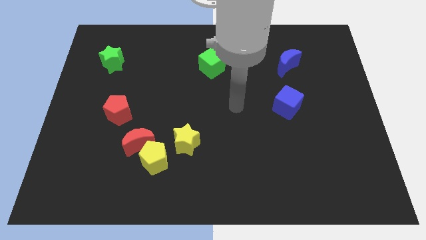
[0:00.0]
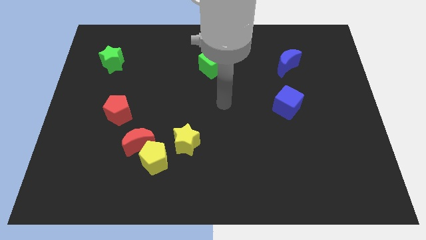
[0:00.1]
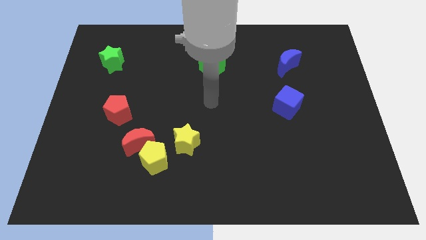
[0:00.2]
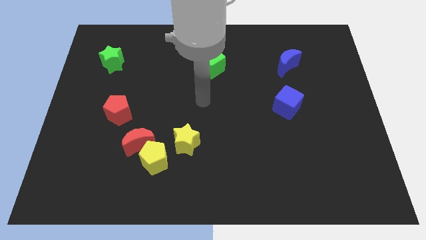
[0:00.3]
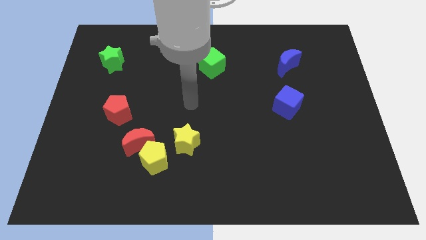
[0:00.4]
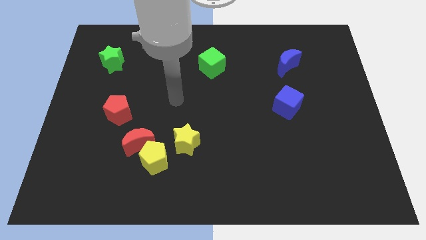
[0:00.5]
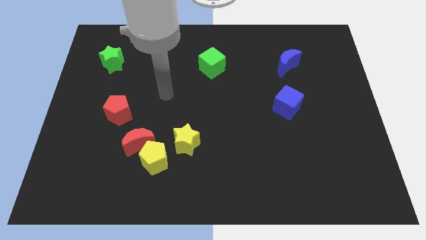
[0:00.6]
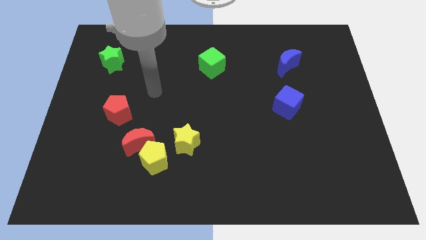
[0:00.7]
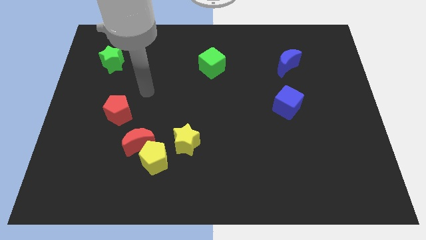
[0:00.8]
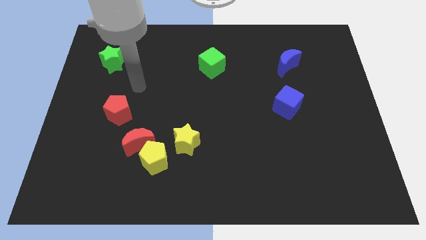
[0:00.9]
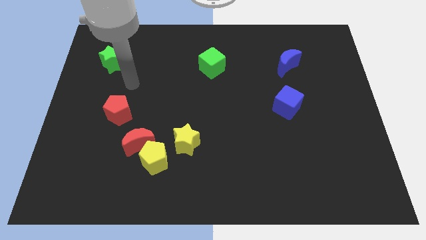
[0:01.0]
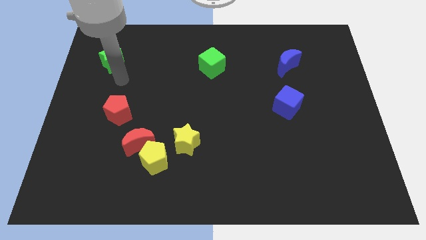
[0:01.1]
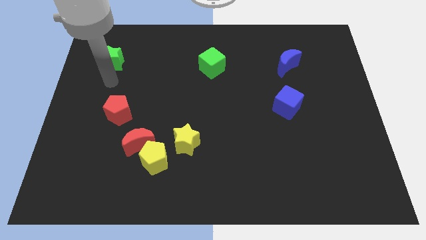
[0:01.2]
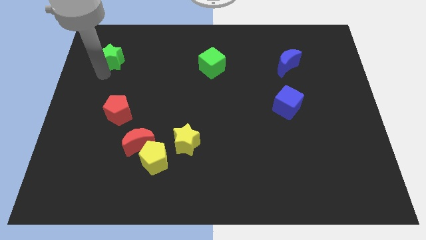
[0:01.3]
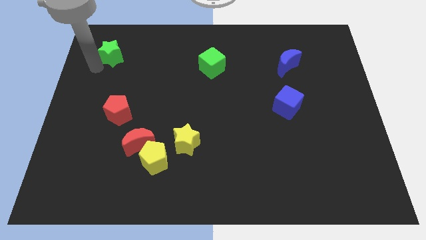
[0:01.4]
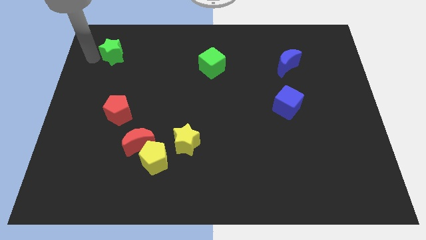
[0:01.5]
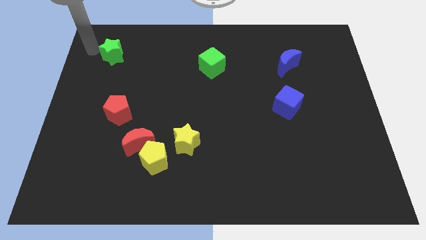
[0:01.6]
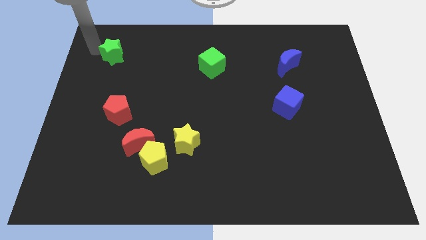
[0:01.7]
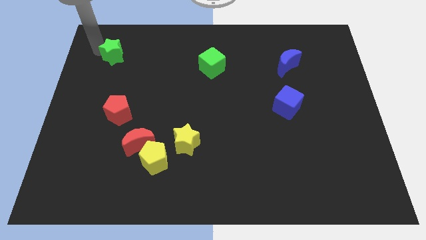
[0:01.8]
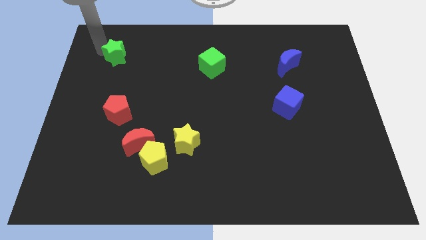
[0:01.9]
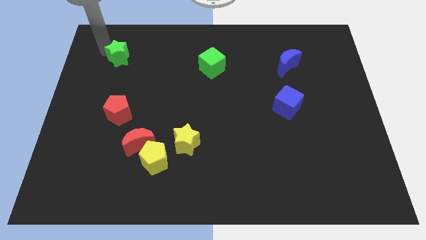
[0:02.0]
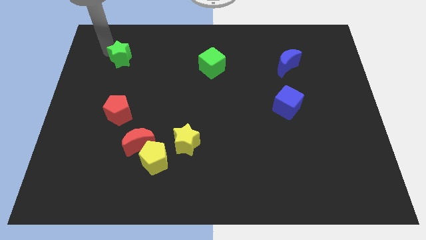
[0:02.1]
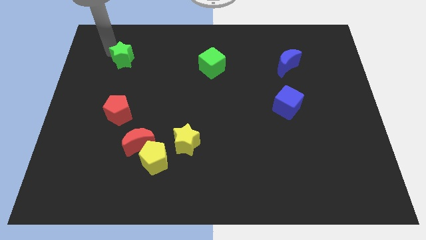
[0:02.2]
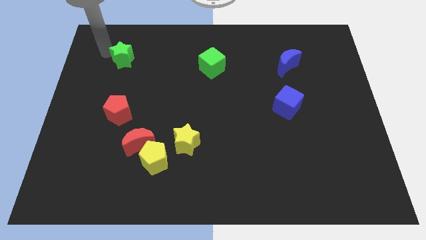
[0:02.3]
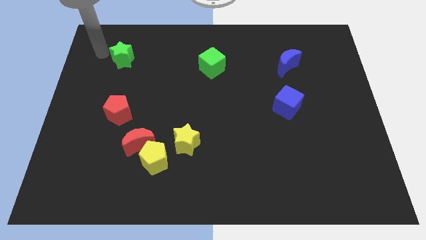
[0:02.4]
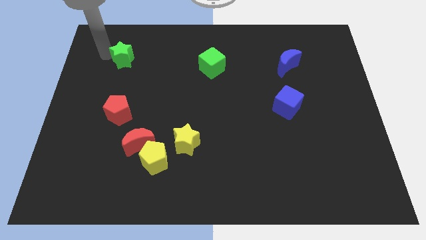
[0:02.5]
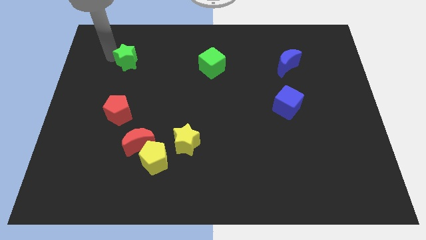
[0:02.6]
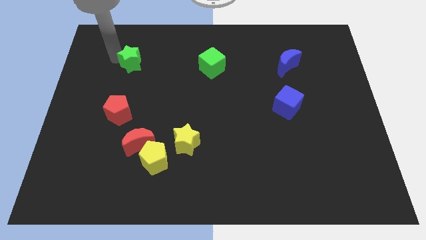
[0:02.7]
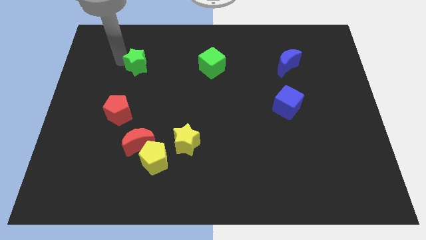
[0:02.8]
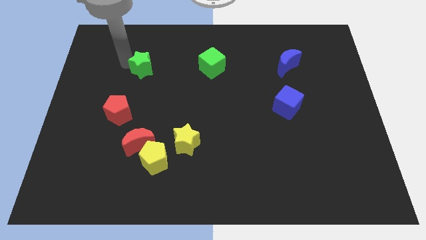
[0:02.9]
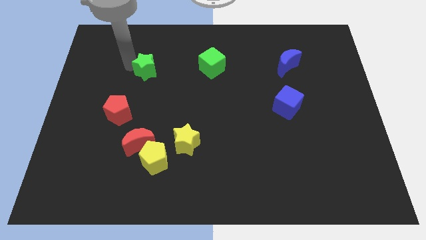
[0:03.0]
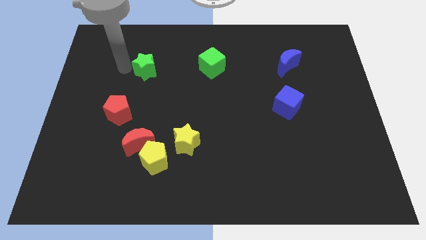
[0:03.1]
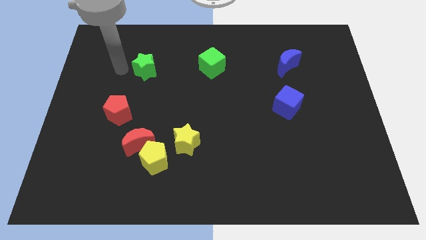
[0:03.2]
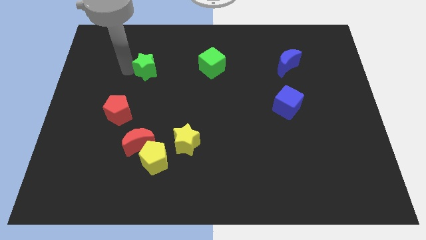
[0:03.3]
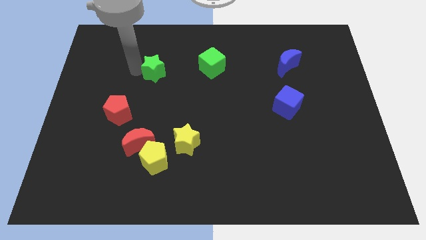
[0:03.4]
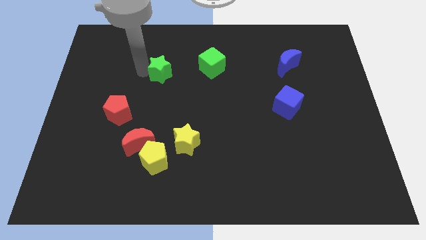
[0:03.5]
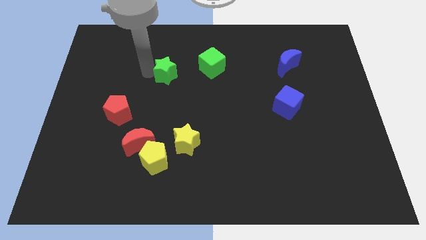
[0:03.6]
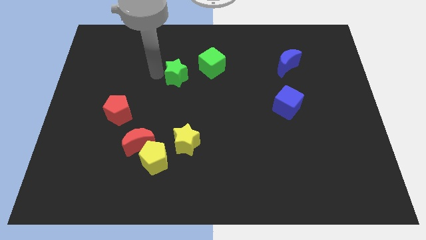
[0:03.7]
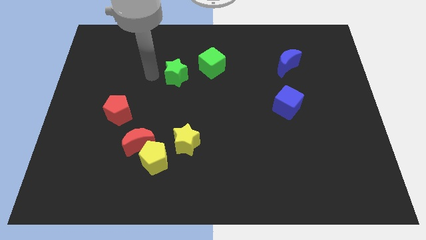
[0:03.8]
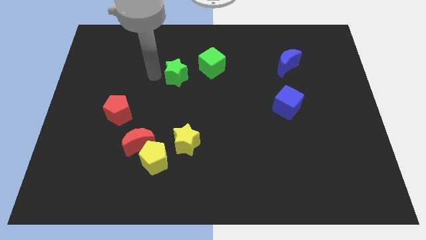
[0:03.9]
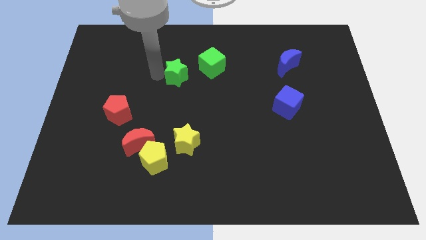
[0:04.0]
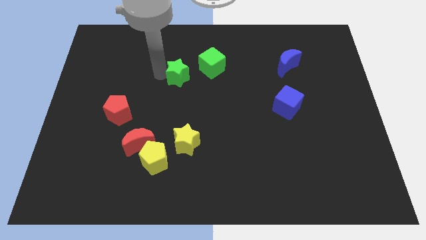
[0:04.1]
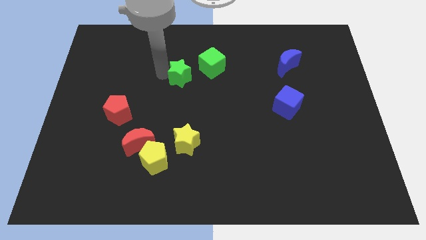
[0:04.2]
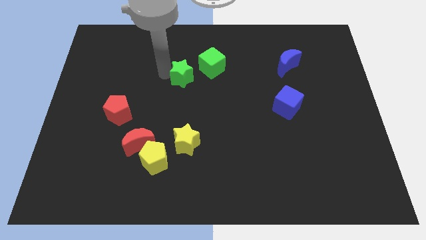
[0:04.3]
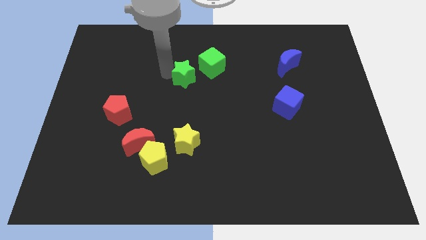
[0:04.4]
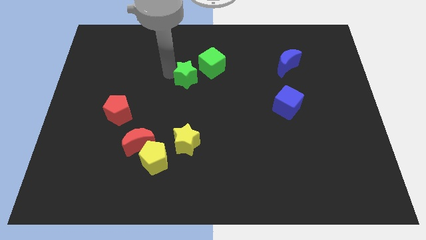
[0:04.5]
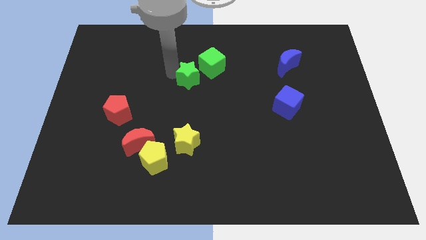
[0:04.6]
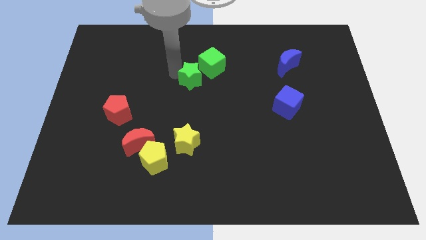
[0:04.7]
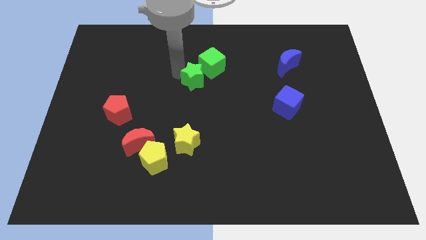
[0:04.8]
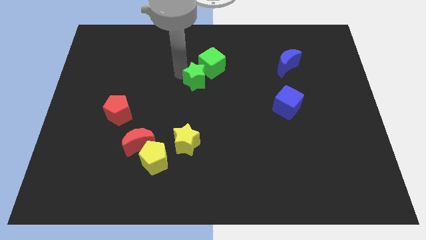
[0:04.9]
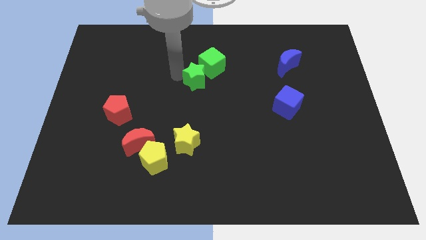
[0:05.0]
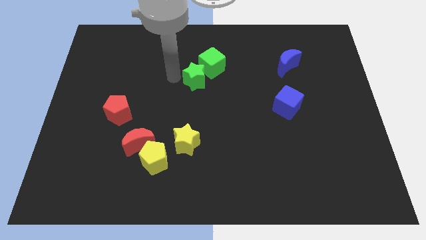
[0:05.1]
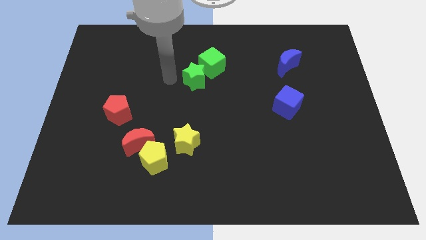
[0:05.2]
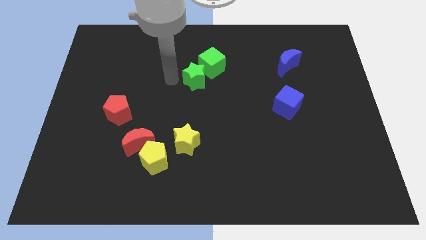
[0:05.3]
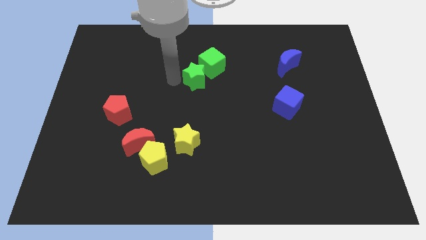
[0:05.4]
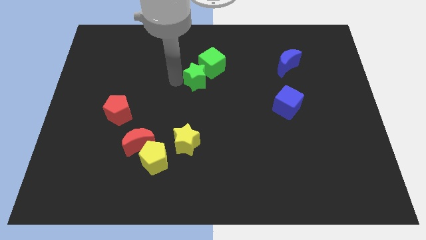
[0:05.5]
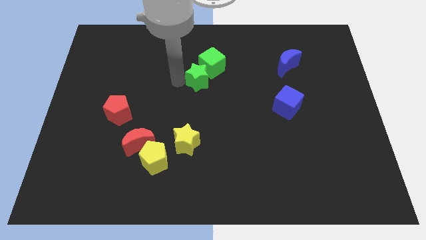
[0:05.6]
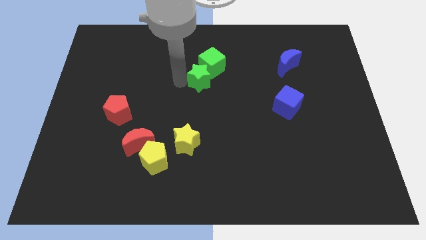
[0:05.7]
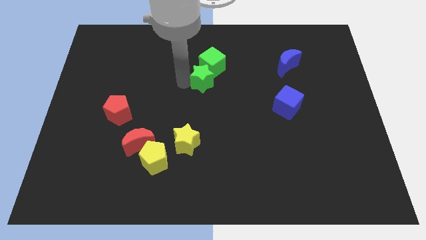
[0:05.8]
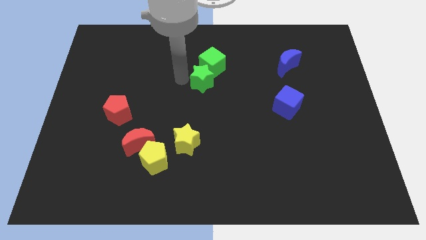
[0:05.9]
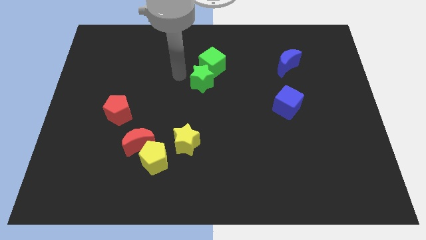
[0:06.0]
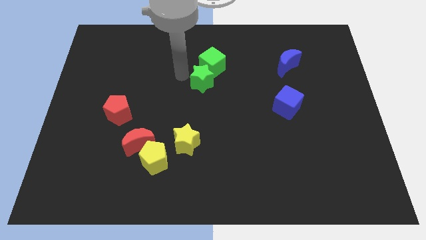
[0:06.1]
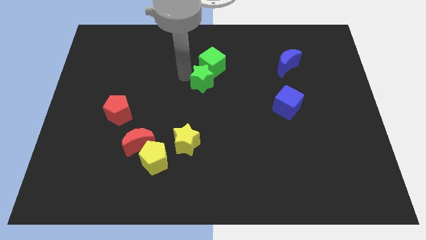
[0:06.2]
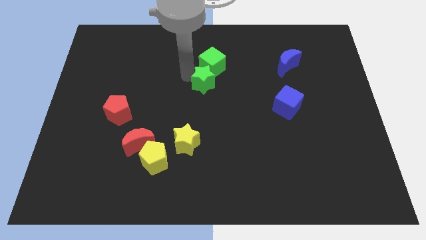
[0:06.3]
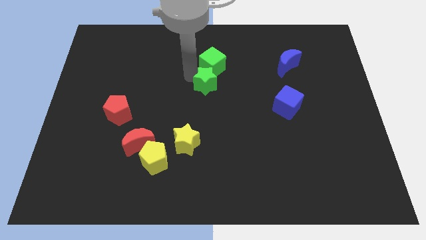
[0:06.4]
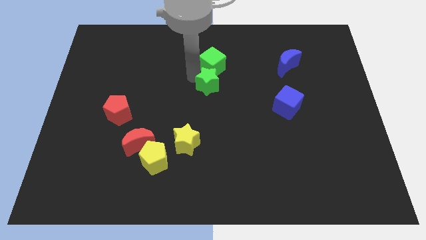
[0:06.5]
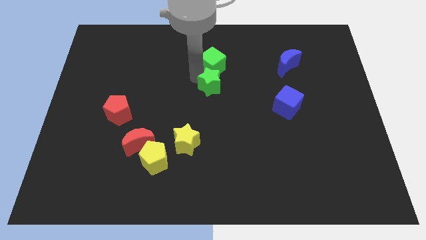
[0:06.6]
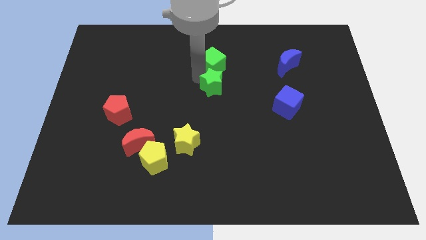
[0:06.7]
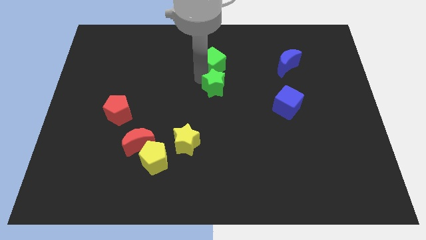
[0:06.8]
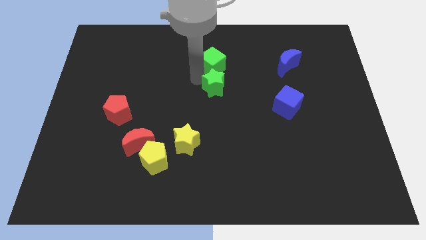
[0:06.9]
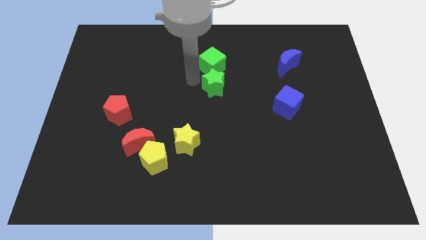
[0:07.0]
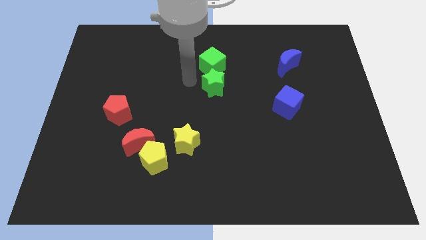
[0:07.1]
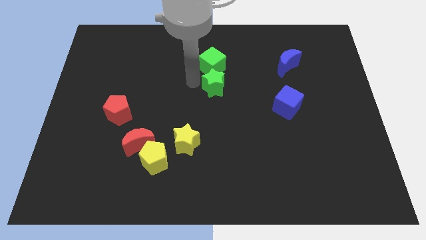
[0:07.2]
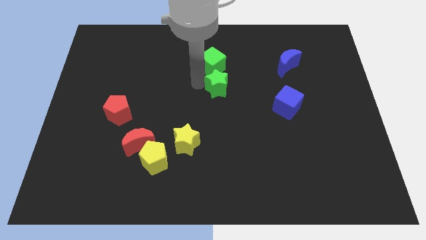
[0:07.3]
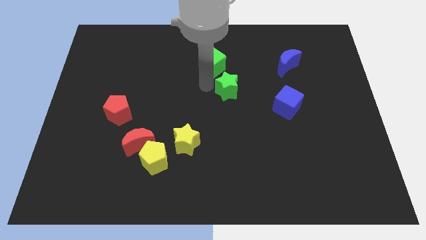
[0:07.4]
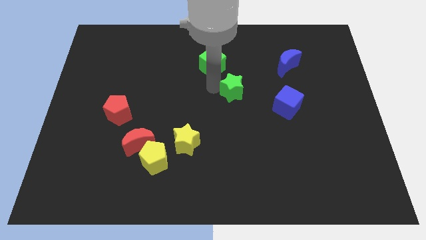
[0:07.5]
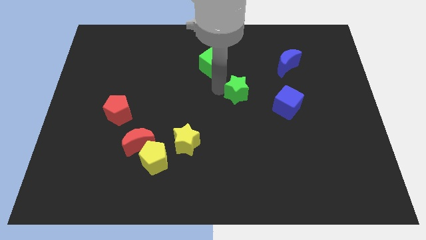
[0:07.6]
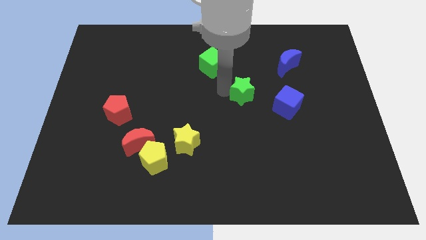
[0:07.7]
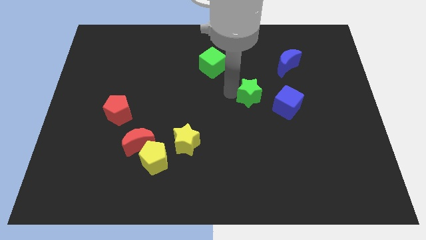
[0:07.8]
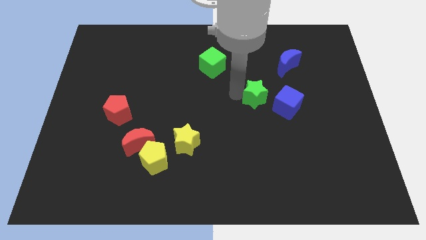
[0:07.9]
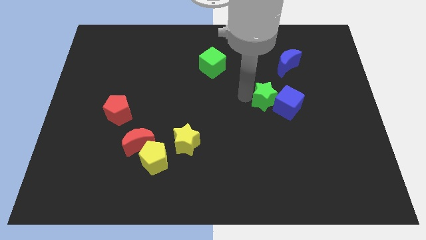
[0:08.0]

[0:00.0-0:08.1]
push the green star close to the blue cube
